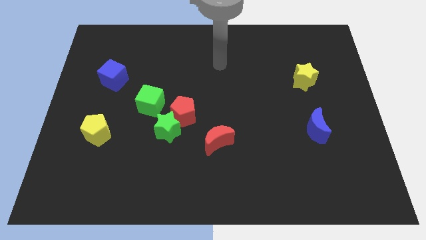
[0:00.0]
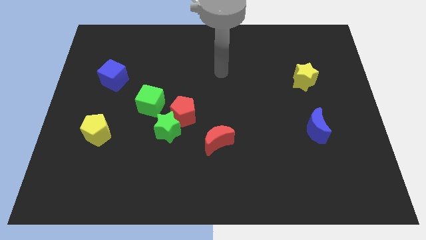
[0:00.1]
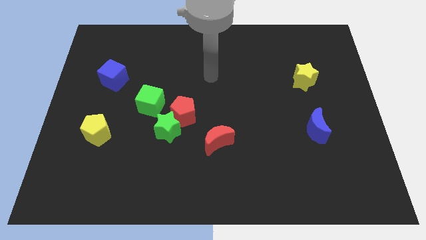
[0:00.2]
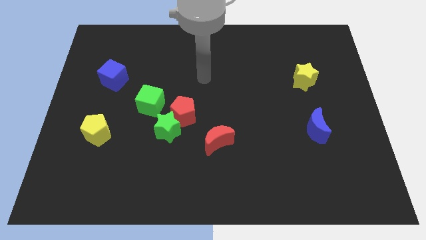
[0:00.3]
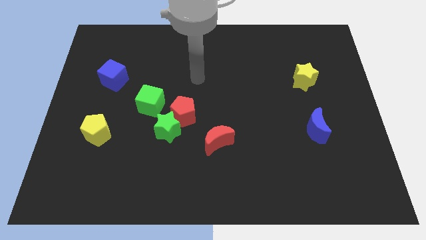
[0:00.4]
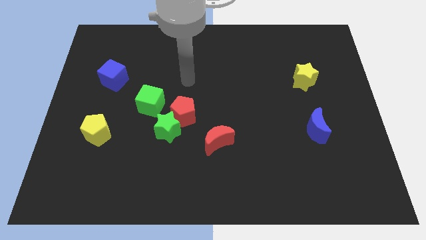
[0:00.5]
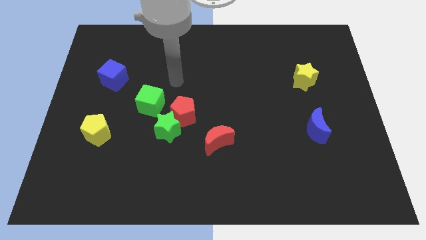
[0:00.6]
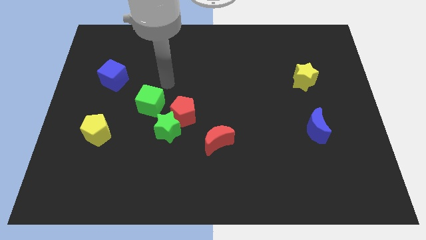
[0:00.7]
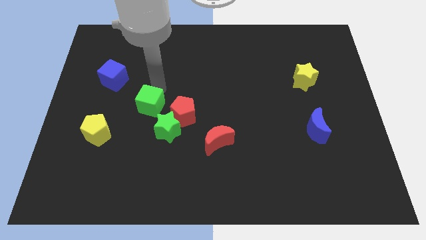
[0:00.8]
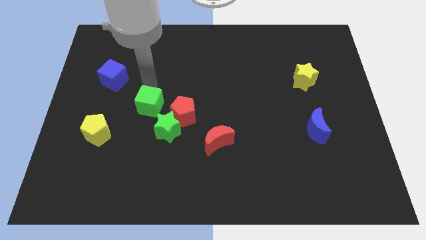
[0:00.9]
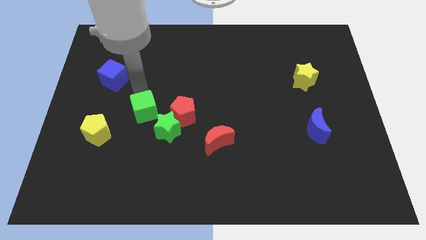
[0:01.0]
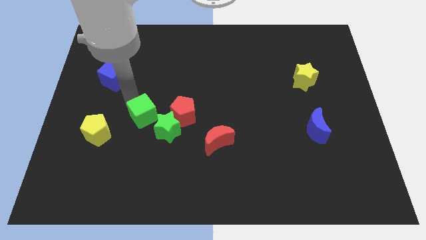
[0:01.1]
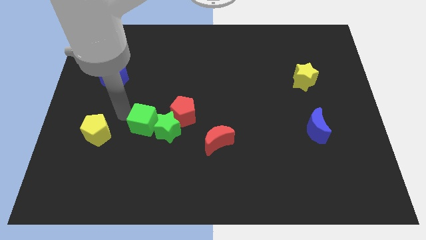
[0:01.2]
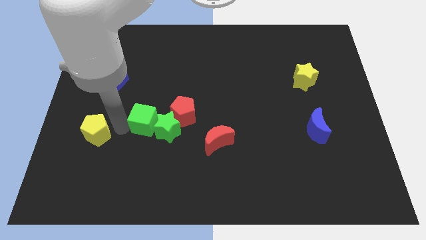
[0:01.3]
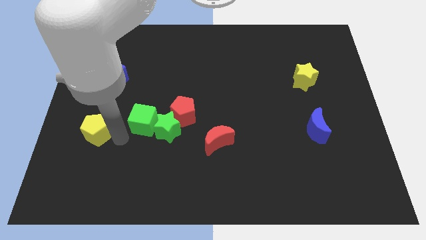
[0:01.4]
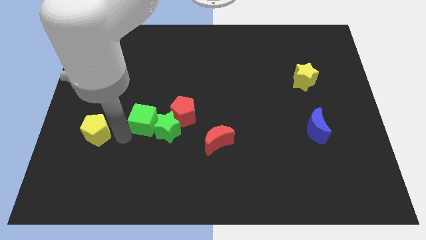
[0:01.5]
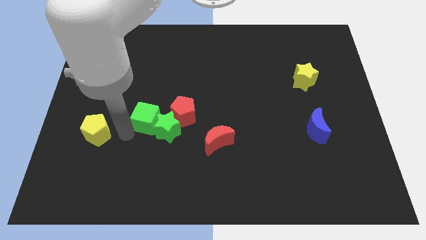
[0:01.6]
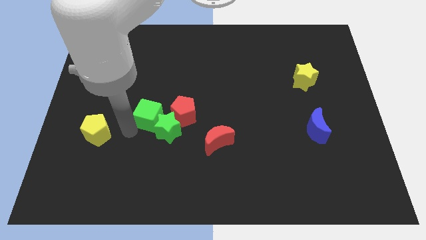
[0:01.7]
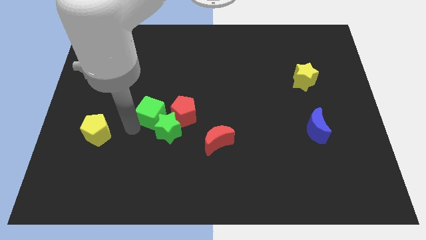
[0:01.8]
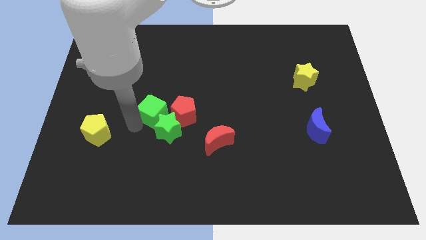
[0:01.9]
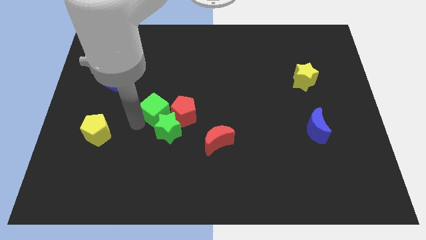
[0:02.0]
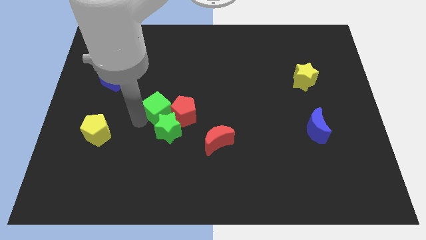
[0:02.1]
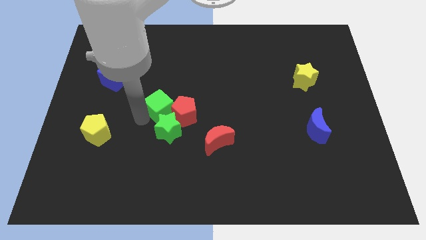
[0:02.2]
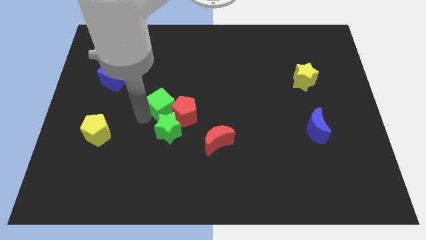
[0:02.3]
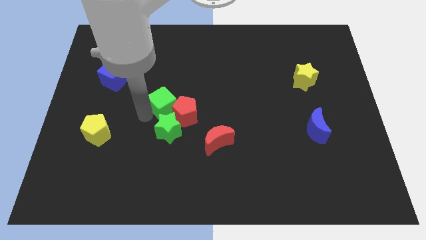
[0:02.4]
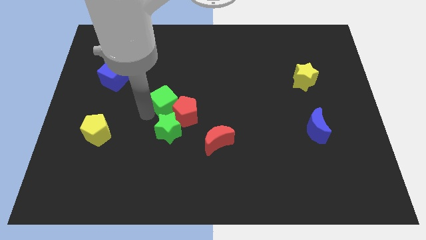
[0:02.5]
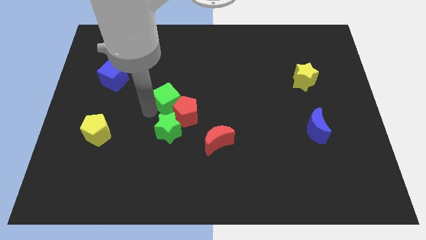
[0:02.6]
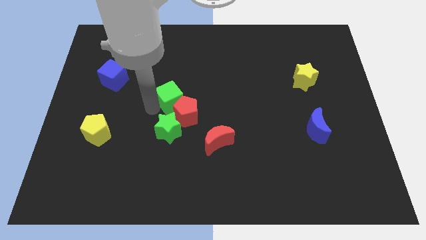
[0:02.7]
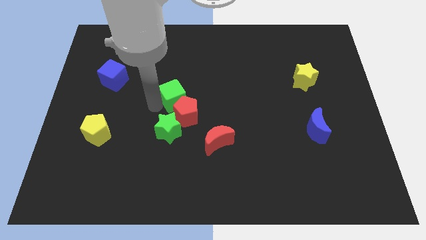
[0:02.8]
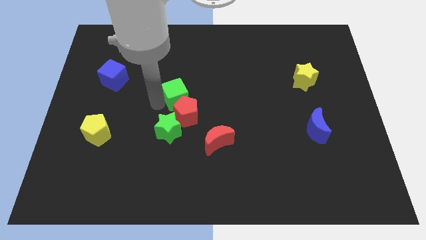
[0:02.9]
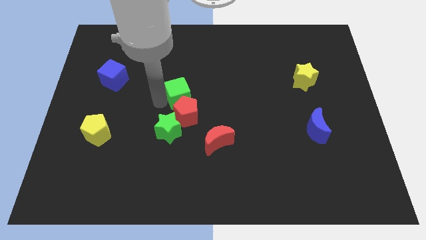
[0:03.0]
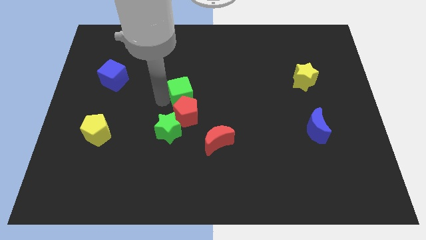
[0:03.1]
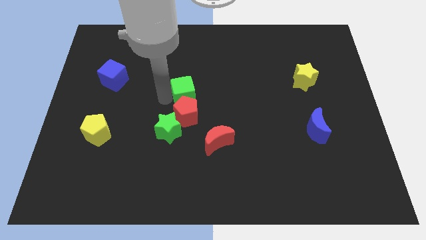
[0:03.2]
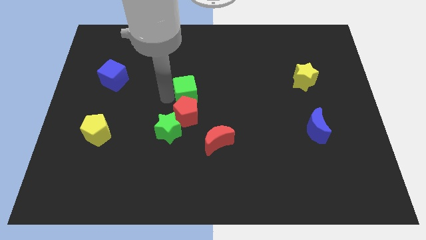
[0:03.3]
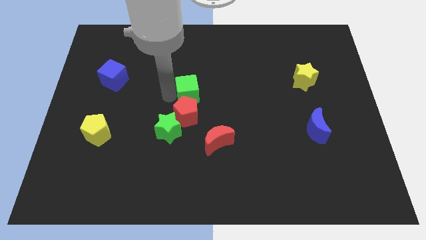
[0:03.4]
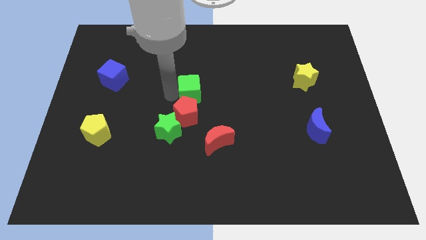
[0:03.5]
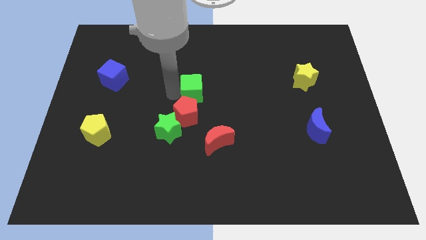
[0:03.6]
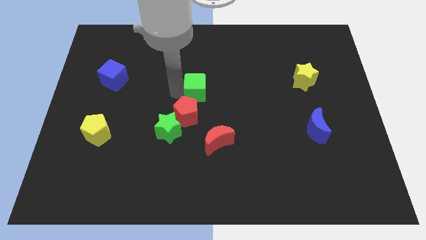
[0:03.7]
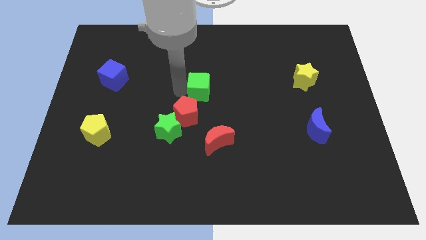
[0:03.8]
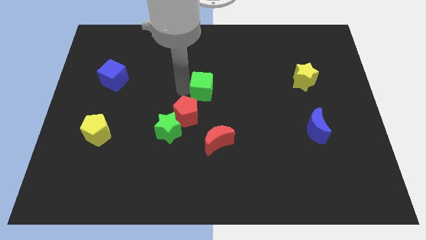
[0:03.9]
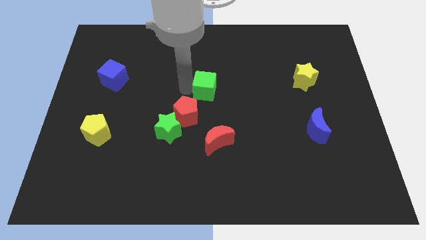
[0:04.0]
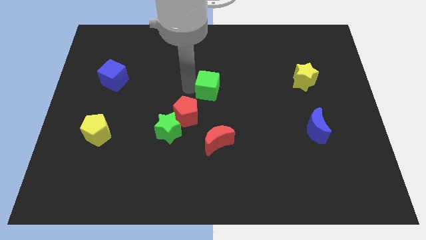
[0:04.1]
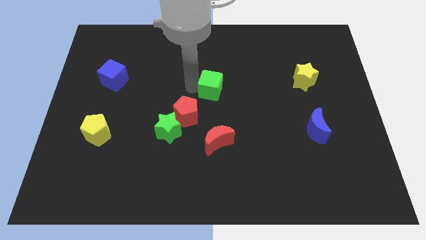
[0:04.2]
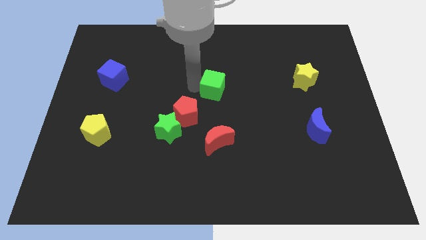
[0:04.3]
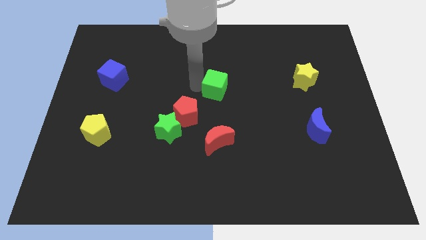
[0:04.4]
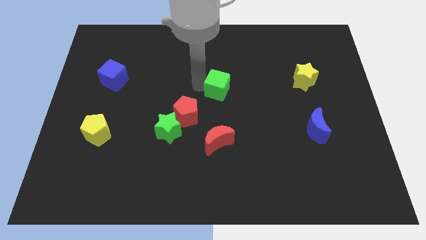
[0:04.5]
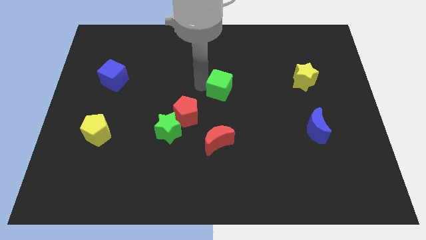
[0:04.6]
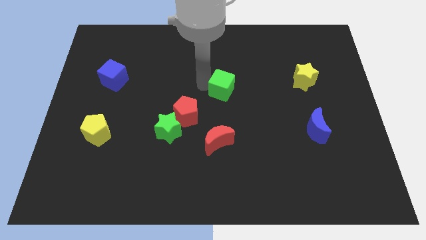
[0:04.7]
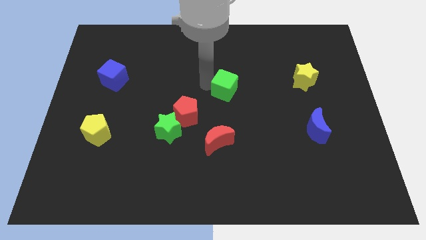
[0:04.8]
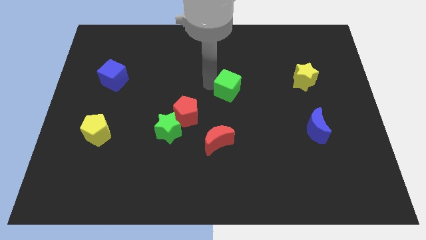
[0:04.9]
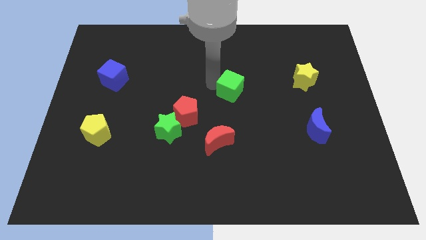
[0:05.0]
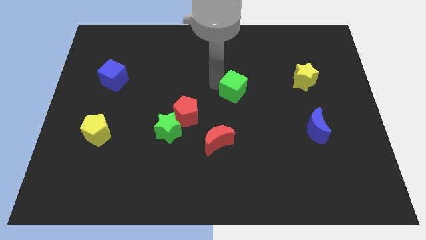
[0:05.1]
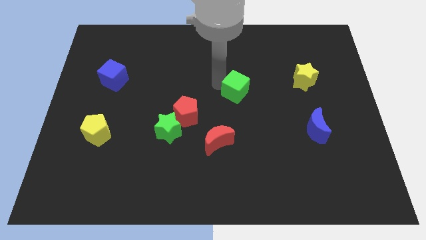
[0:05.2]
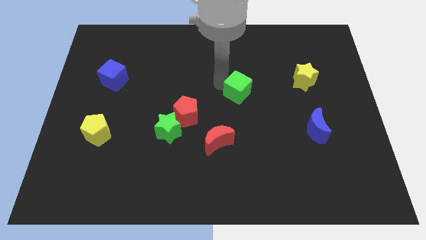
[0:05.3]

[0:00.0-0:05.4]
push the green cube right

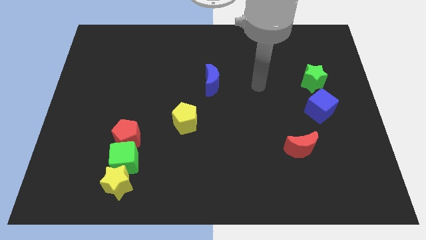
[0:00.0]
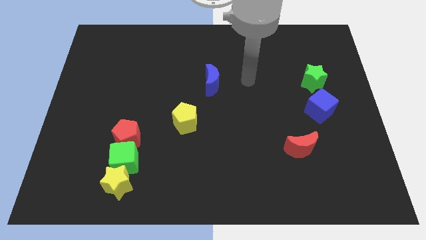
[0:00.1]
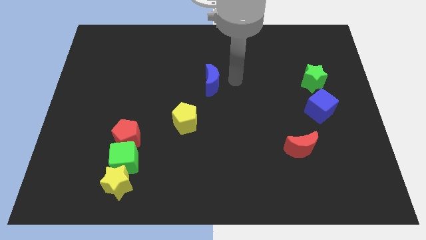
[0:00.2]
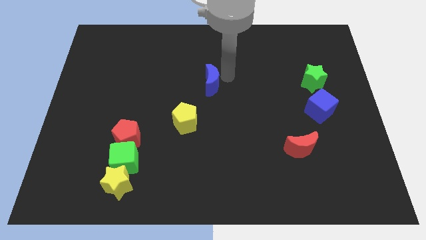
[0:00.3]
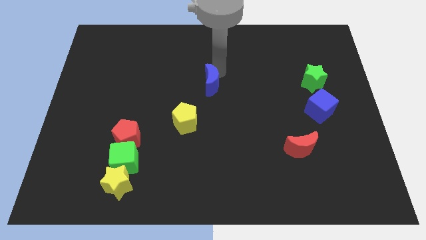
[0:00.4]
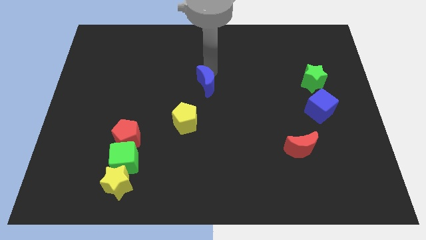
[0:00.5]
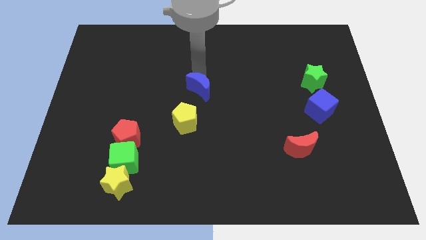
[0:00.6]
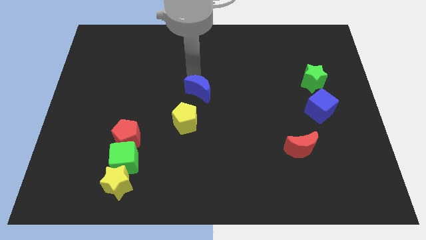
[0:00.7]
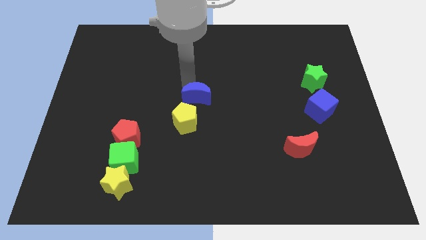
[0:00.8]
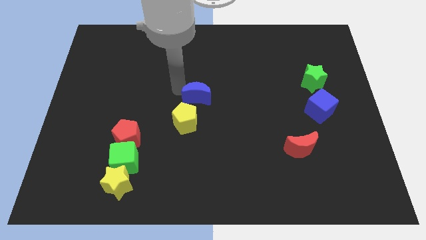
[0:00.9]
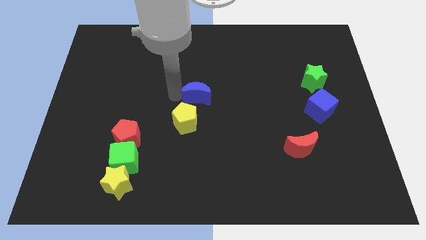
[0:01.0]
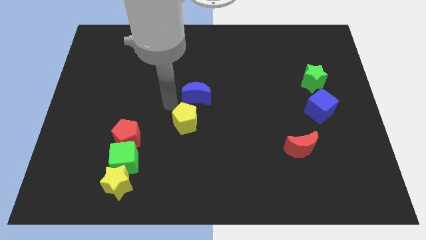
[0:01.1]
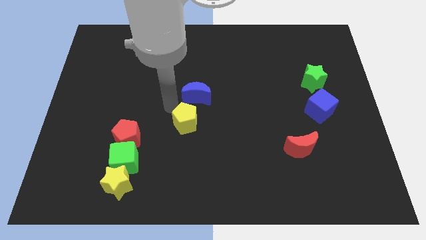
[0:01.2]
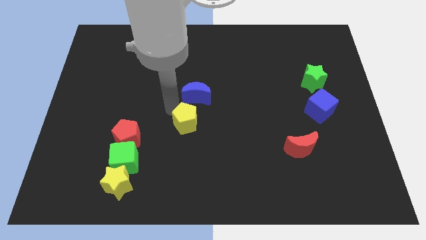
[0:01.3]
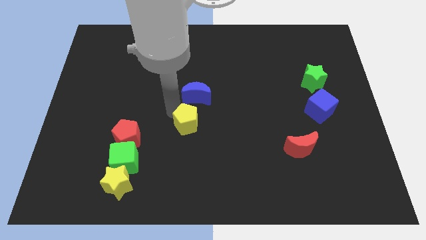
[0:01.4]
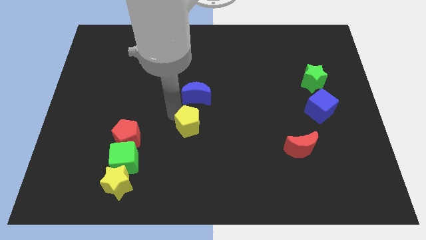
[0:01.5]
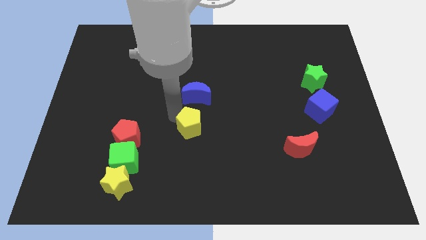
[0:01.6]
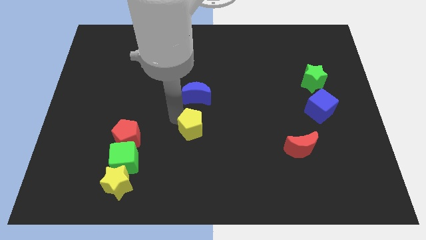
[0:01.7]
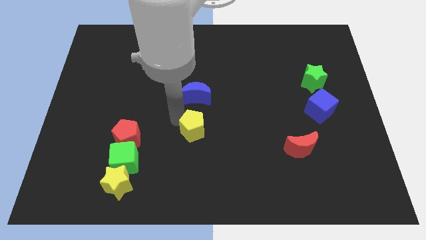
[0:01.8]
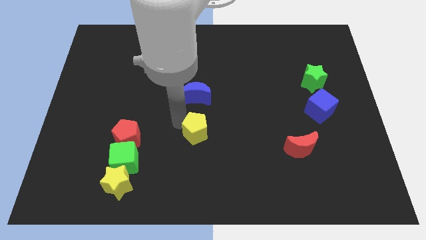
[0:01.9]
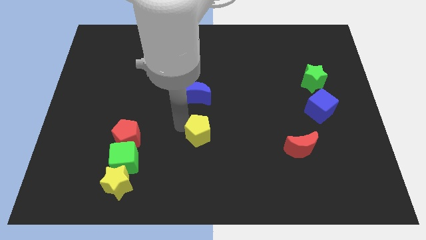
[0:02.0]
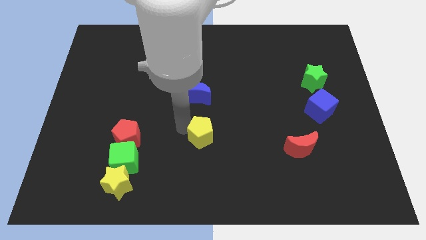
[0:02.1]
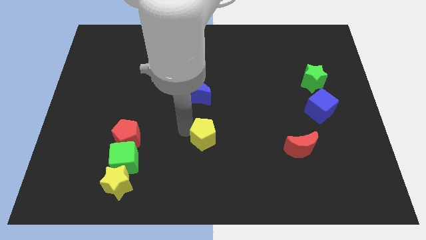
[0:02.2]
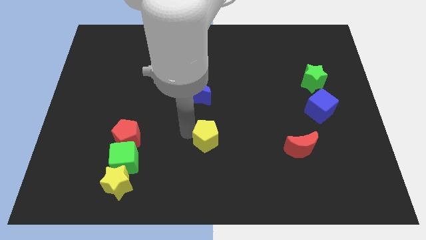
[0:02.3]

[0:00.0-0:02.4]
move the yellow pentagon slightly downwards and right diagonally

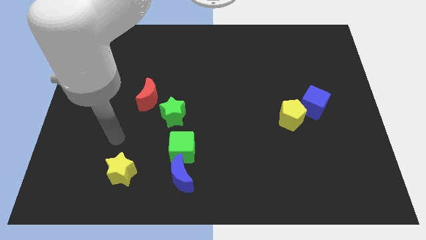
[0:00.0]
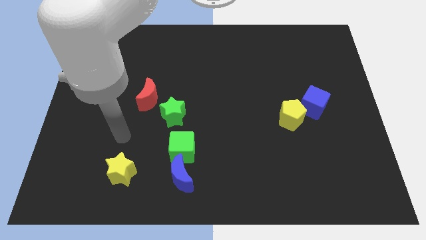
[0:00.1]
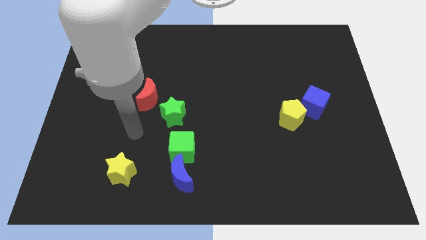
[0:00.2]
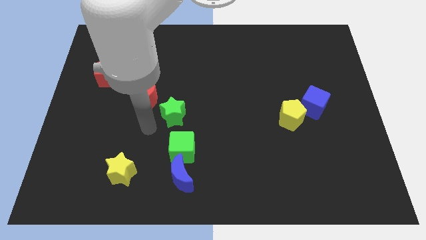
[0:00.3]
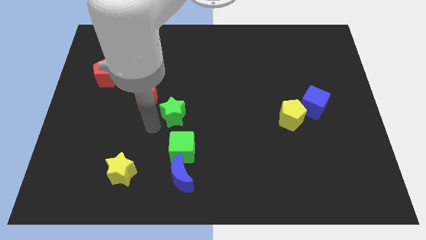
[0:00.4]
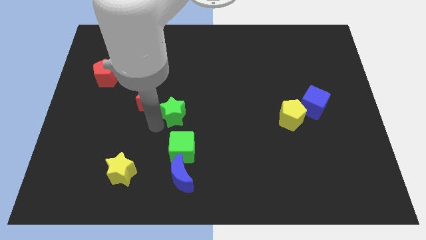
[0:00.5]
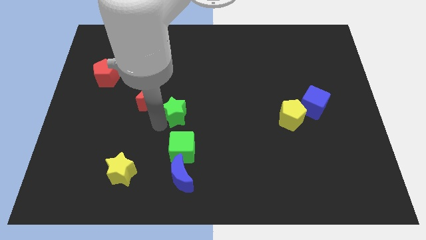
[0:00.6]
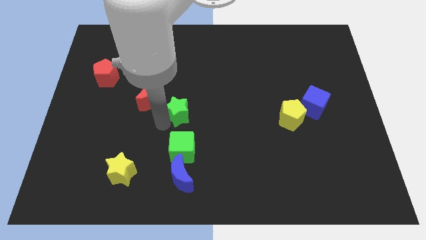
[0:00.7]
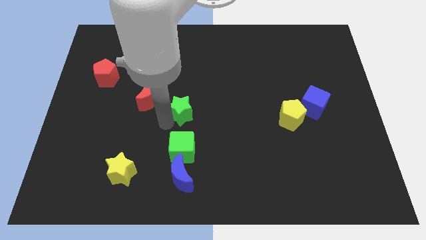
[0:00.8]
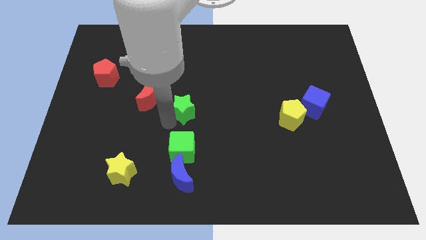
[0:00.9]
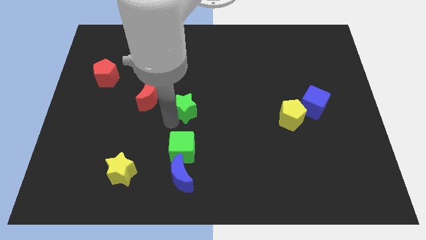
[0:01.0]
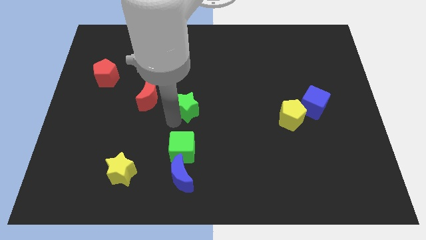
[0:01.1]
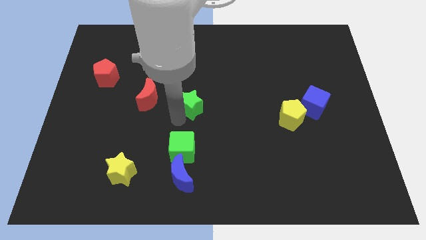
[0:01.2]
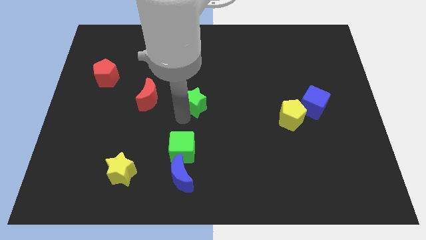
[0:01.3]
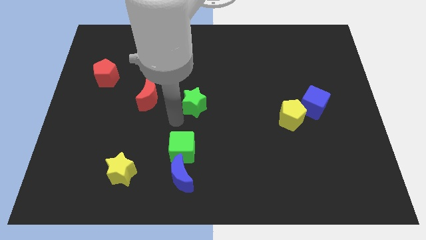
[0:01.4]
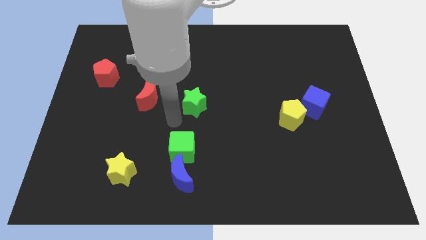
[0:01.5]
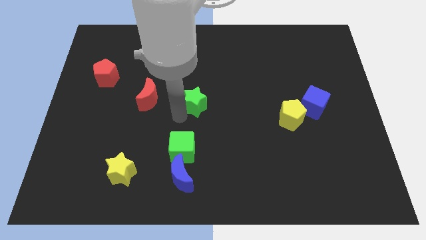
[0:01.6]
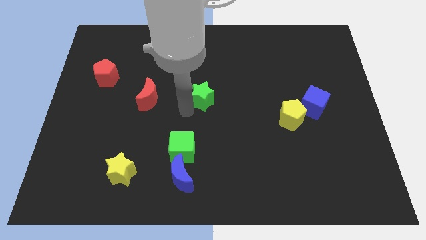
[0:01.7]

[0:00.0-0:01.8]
slide the green star diagonally upwards and right a little bit
